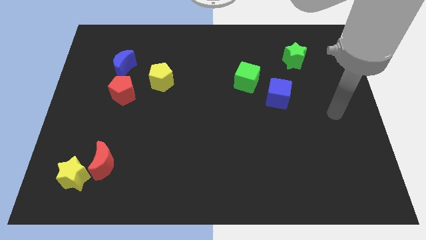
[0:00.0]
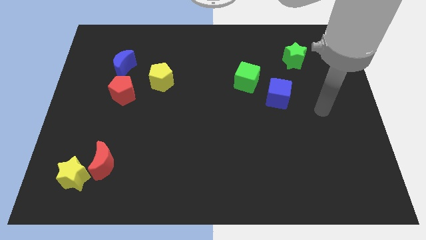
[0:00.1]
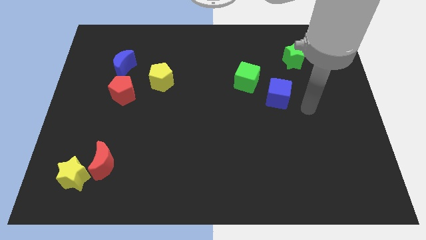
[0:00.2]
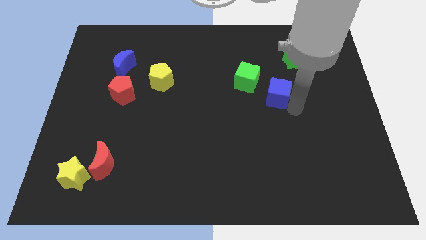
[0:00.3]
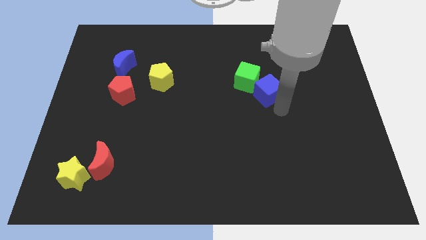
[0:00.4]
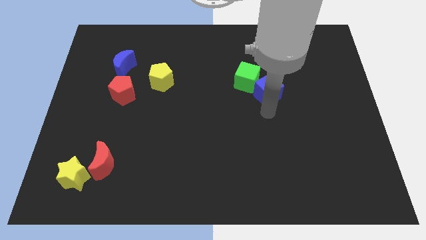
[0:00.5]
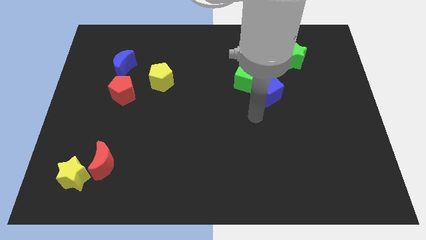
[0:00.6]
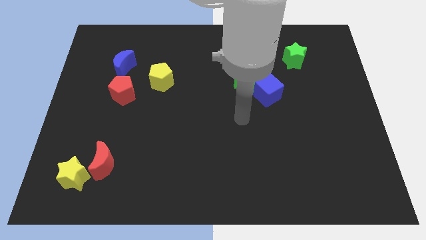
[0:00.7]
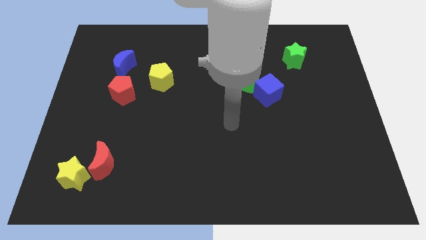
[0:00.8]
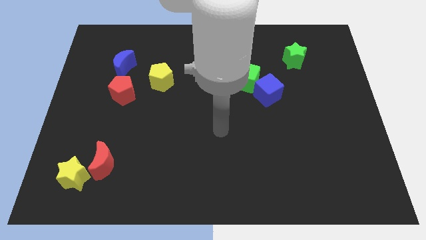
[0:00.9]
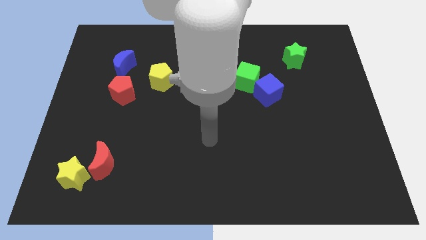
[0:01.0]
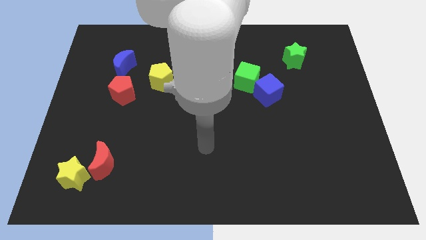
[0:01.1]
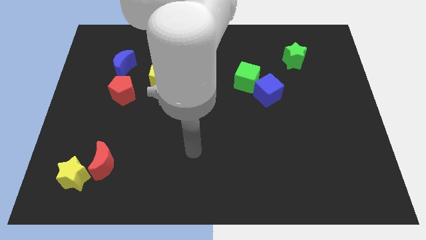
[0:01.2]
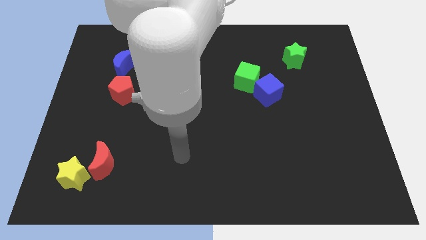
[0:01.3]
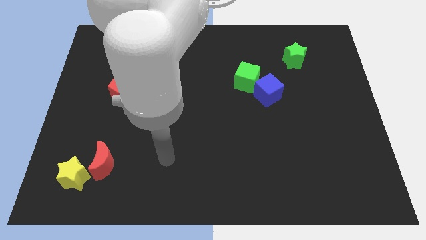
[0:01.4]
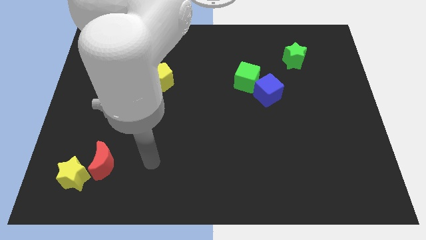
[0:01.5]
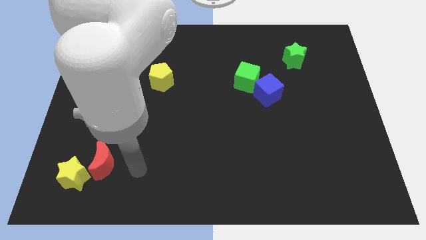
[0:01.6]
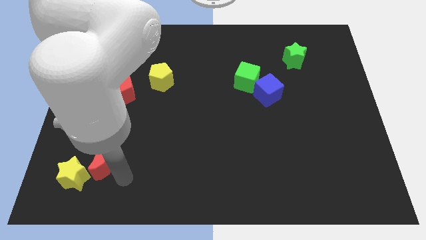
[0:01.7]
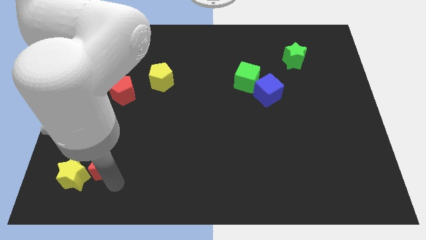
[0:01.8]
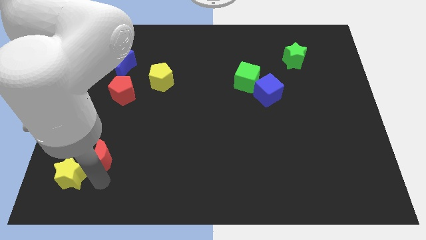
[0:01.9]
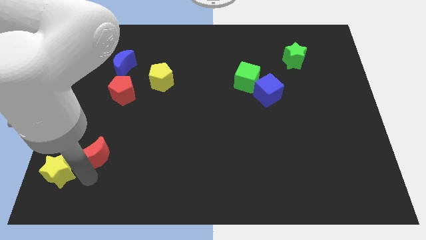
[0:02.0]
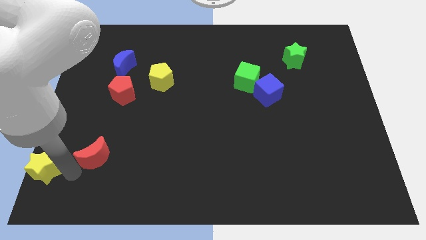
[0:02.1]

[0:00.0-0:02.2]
move the red moon away from the yellow star

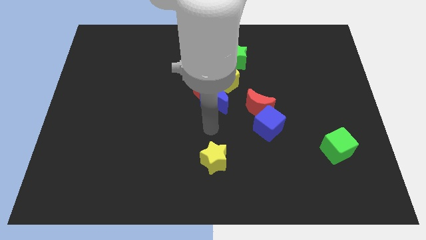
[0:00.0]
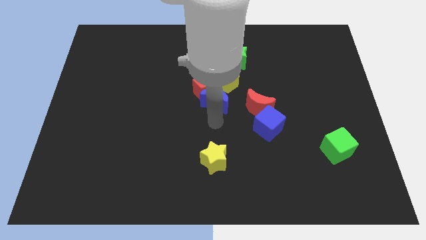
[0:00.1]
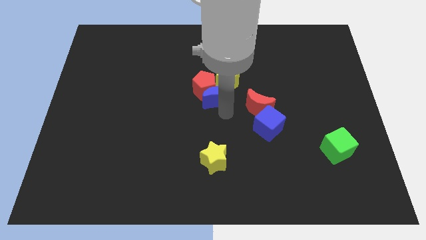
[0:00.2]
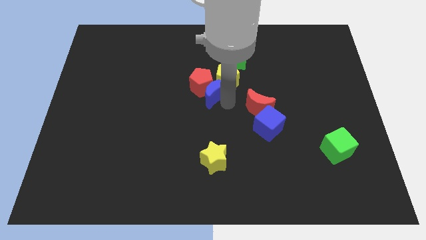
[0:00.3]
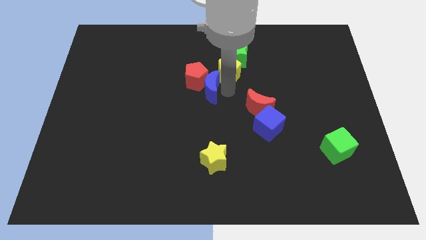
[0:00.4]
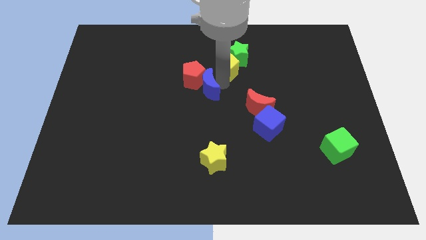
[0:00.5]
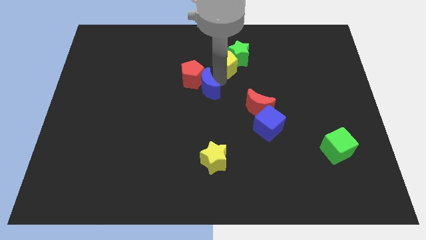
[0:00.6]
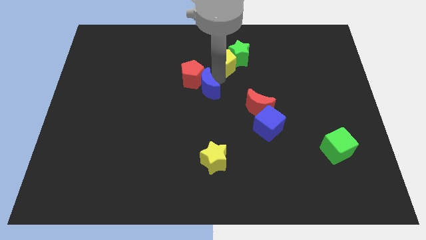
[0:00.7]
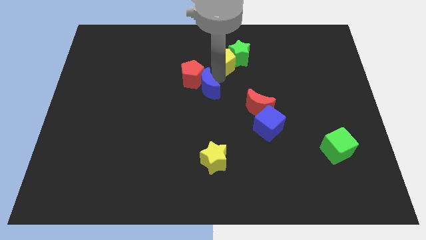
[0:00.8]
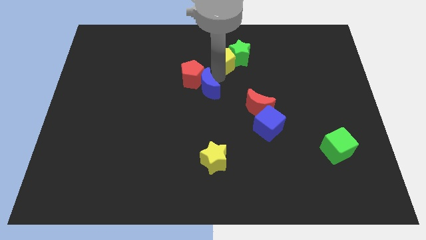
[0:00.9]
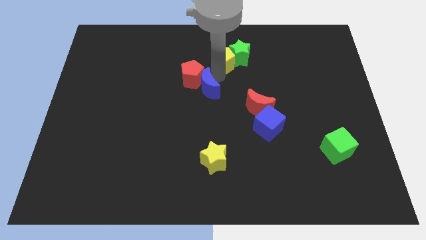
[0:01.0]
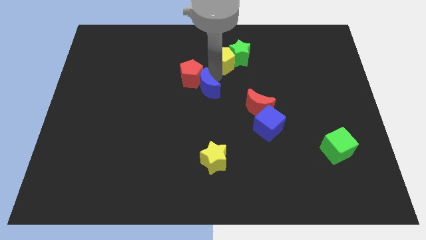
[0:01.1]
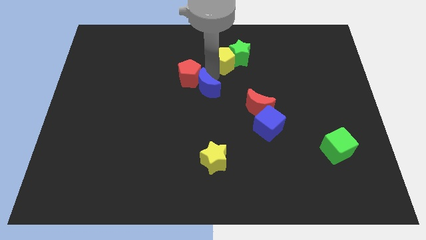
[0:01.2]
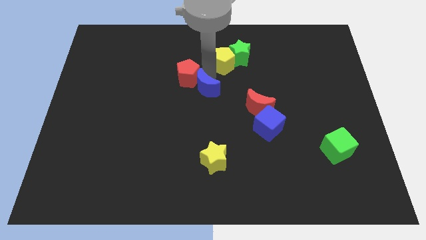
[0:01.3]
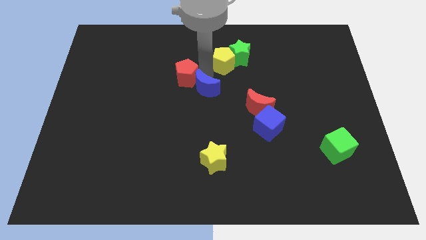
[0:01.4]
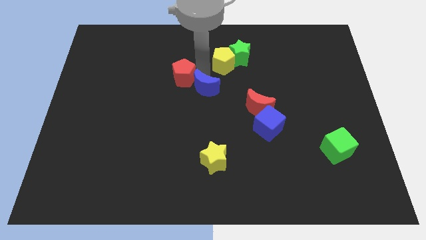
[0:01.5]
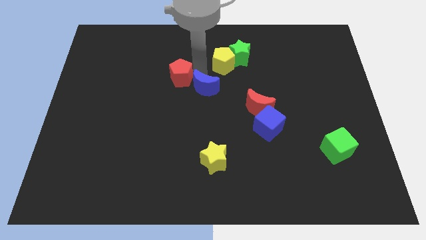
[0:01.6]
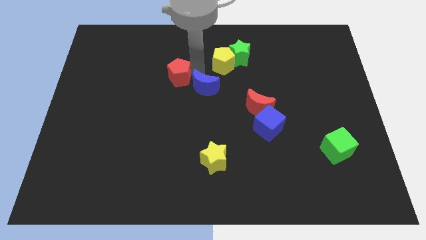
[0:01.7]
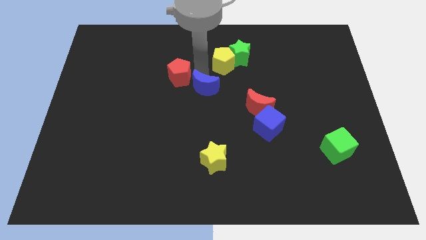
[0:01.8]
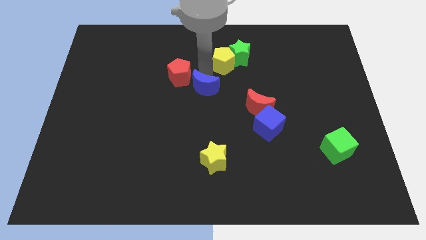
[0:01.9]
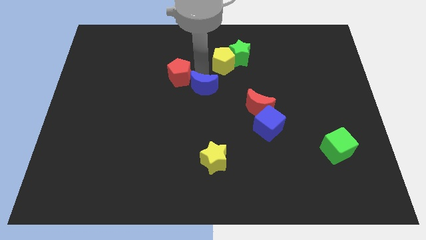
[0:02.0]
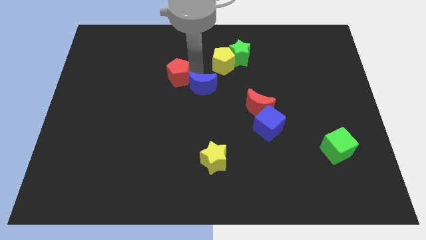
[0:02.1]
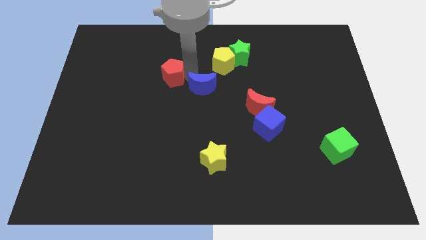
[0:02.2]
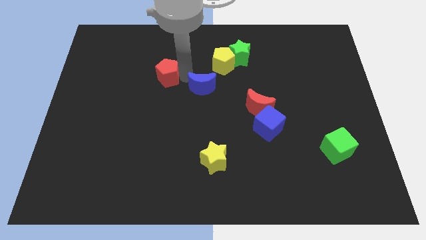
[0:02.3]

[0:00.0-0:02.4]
separate the red pentagon from the blue moon and yellow pentagon

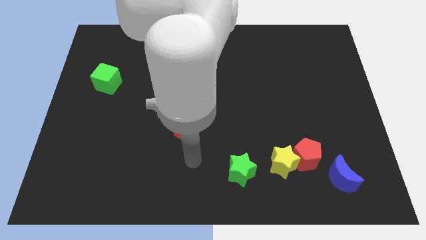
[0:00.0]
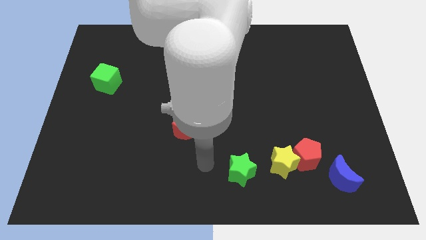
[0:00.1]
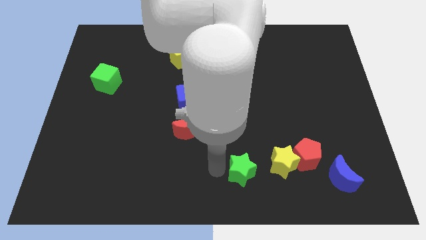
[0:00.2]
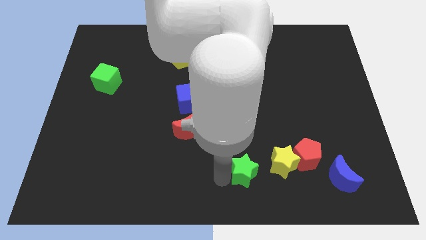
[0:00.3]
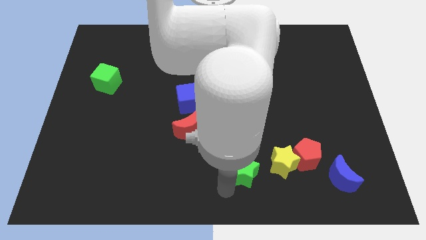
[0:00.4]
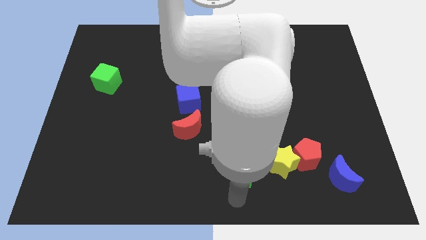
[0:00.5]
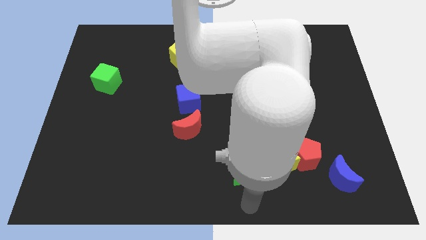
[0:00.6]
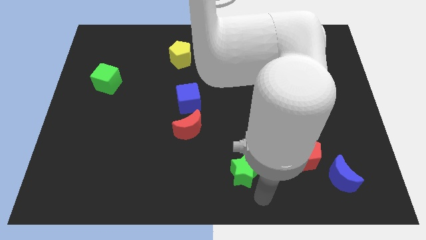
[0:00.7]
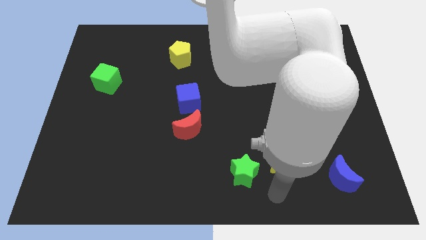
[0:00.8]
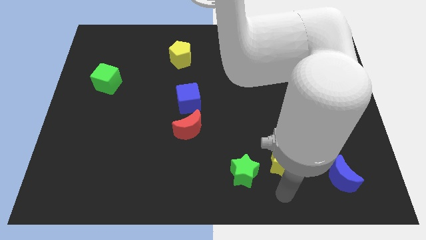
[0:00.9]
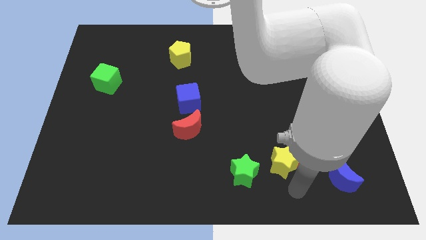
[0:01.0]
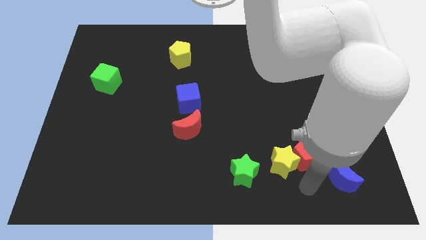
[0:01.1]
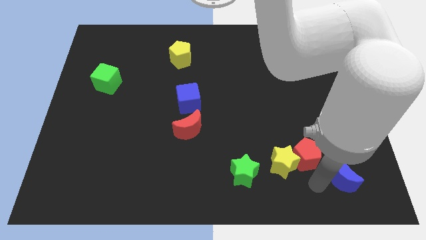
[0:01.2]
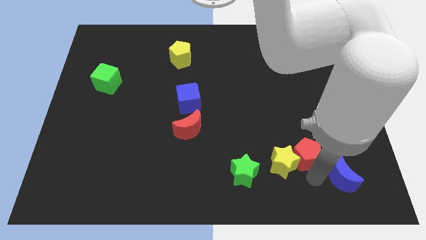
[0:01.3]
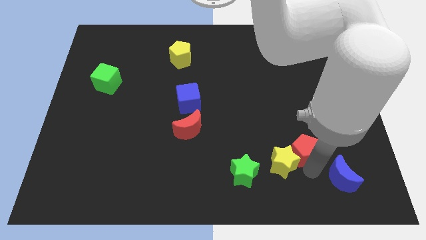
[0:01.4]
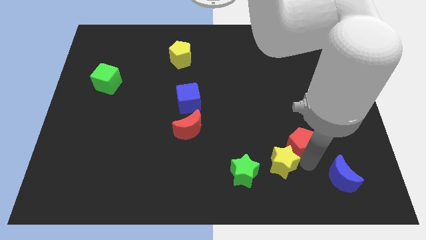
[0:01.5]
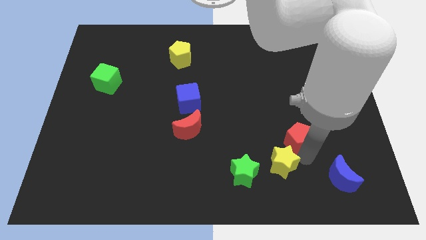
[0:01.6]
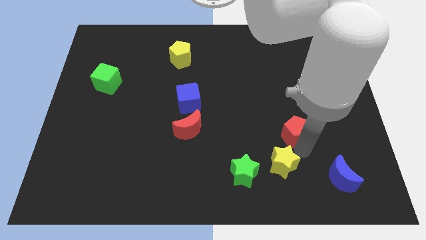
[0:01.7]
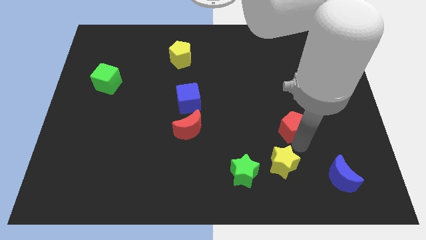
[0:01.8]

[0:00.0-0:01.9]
separate the red pentagon from the yellow star and blue moon

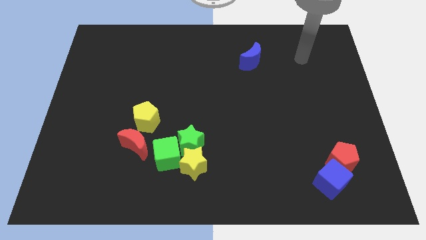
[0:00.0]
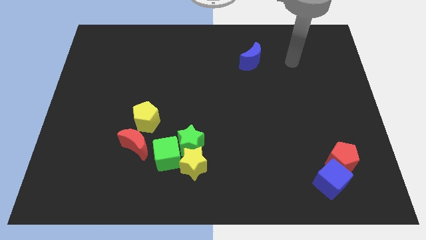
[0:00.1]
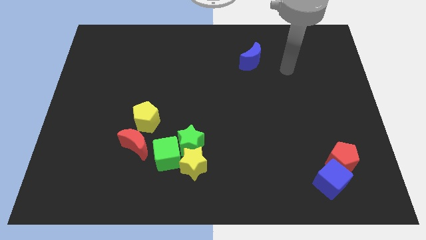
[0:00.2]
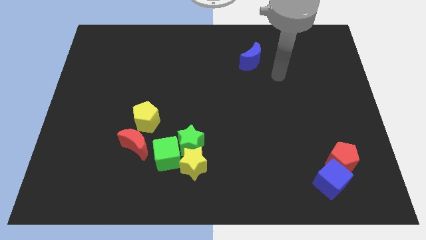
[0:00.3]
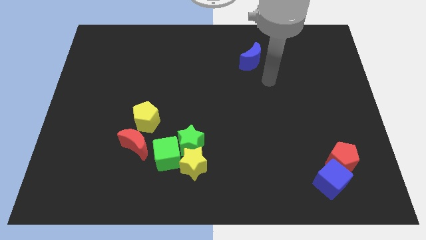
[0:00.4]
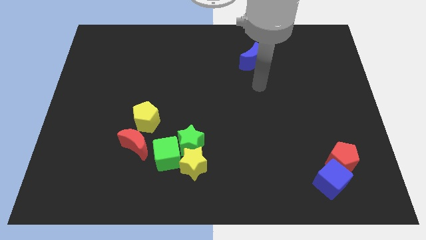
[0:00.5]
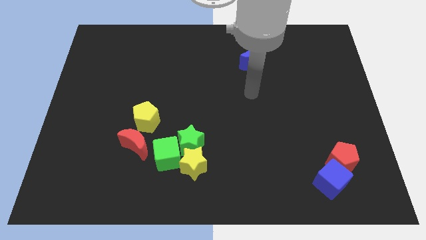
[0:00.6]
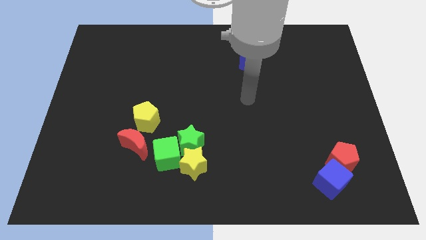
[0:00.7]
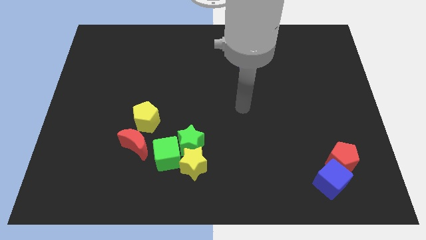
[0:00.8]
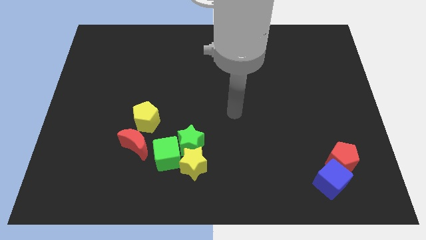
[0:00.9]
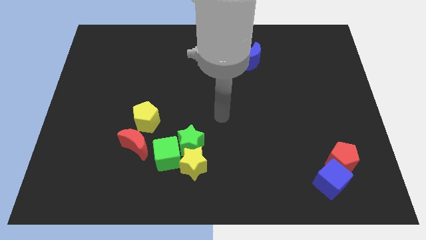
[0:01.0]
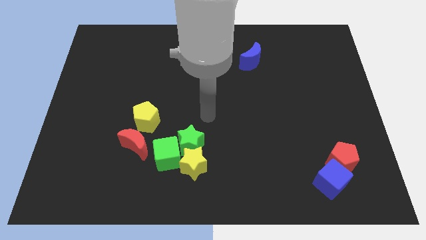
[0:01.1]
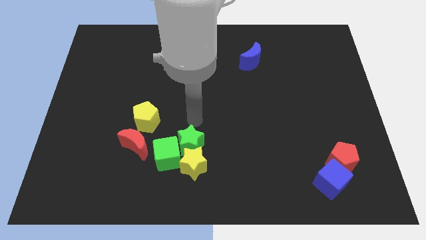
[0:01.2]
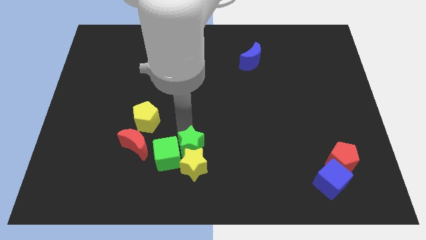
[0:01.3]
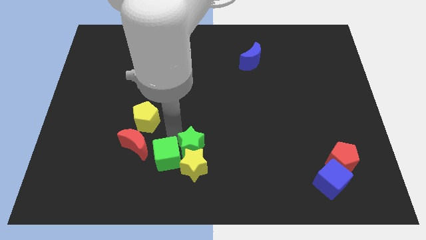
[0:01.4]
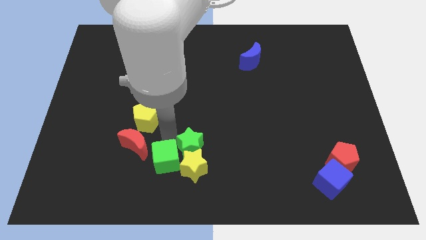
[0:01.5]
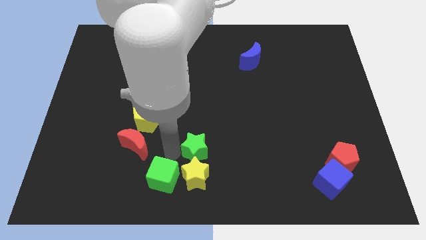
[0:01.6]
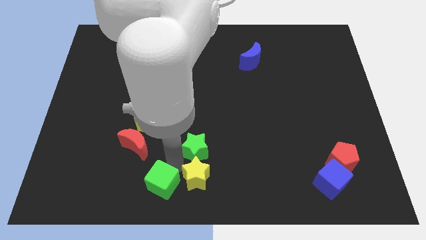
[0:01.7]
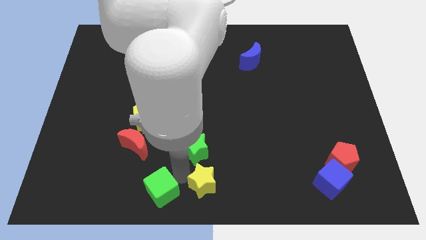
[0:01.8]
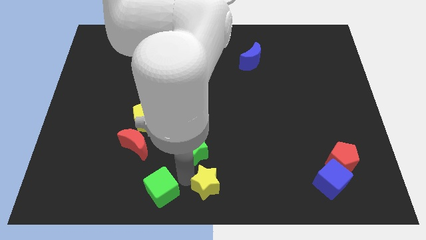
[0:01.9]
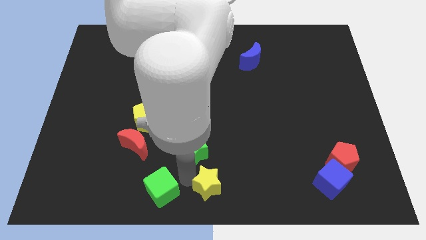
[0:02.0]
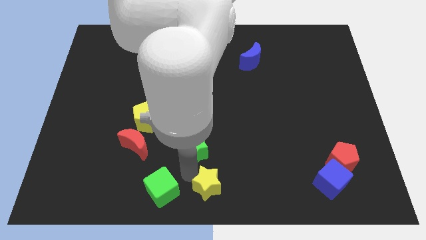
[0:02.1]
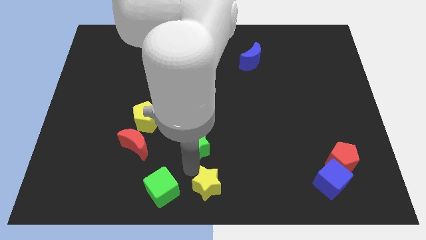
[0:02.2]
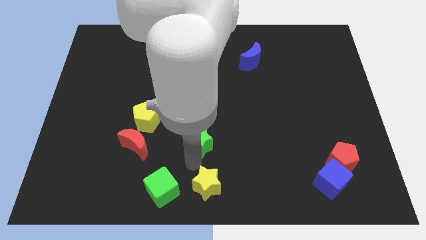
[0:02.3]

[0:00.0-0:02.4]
move the green star away from the yellow star and green cube

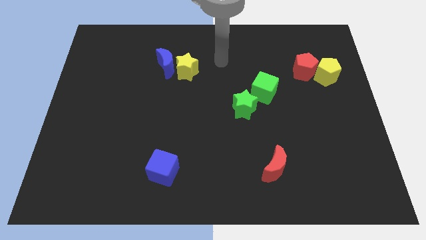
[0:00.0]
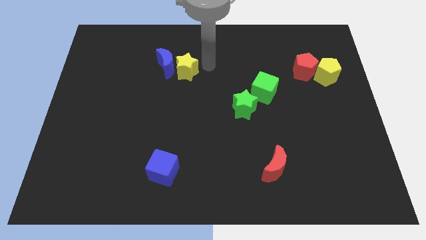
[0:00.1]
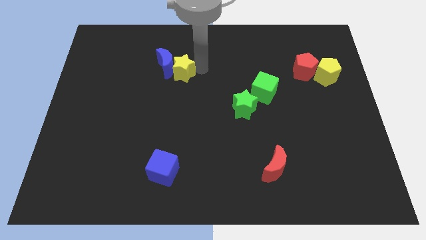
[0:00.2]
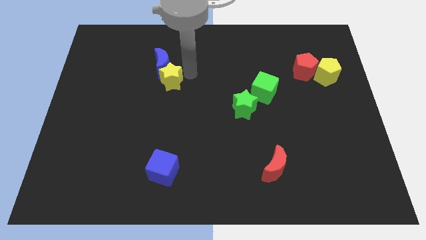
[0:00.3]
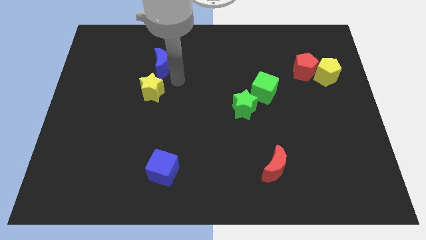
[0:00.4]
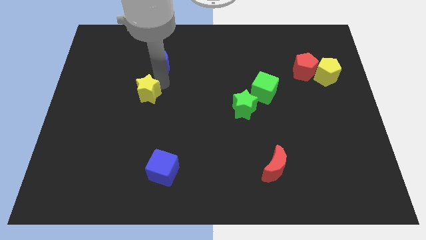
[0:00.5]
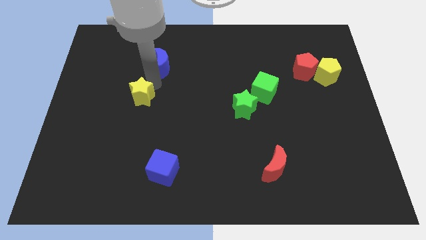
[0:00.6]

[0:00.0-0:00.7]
separate the blue moon from the yellow star
